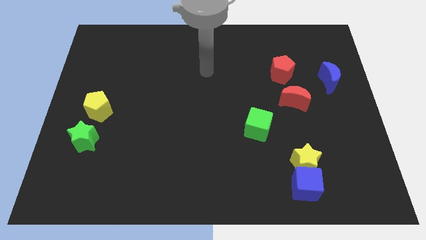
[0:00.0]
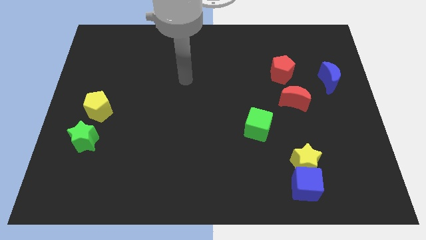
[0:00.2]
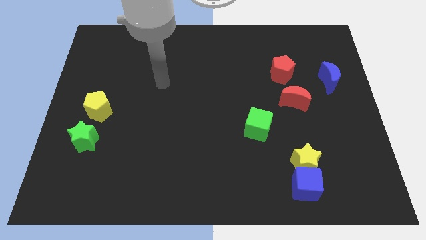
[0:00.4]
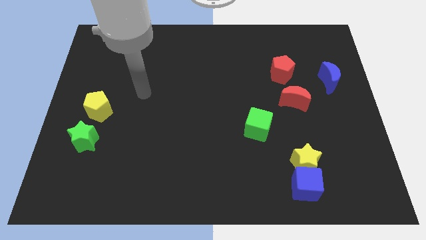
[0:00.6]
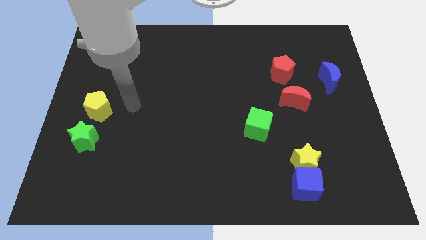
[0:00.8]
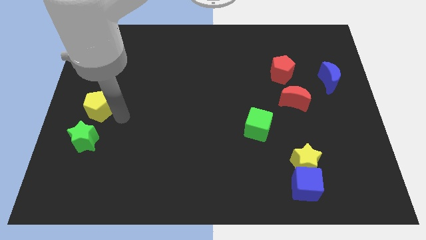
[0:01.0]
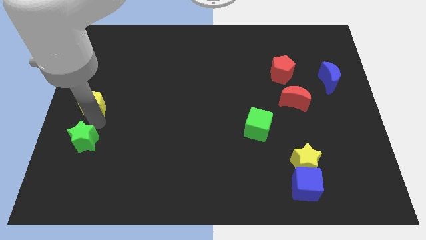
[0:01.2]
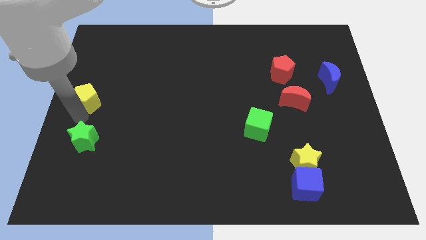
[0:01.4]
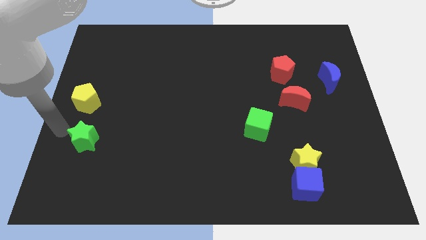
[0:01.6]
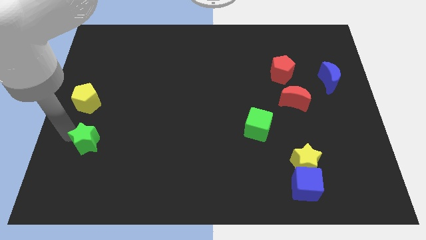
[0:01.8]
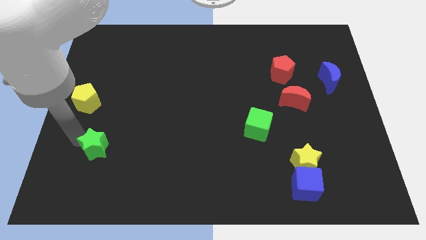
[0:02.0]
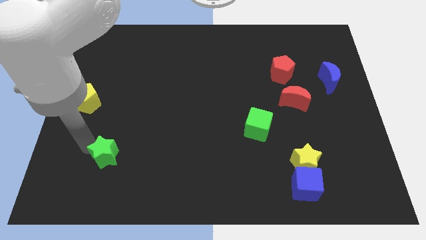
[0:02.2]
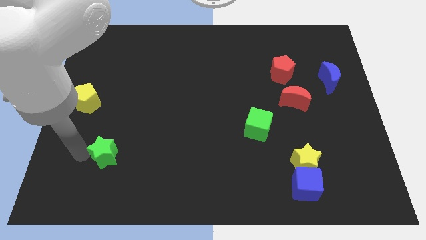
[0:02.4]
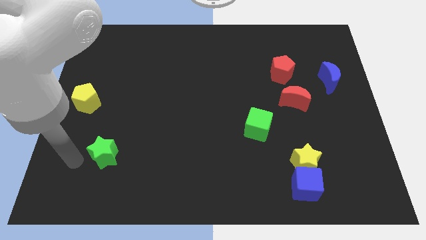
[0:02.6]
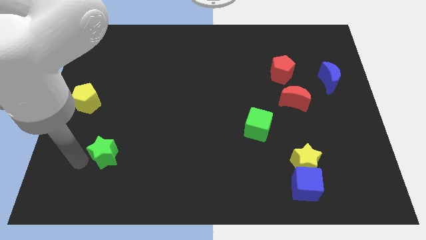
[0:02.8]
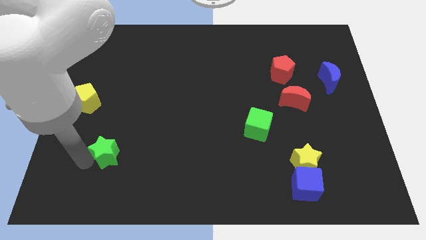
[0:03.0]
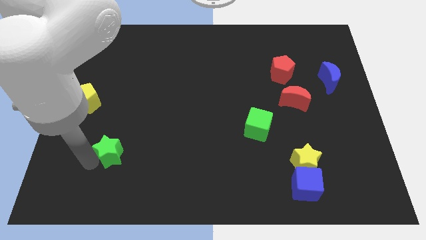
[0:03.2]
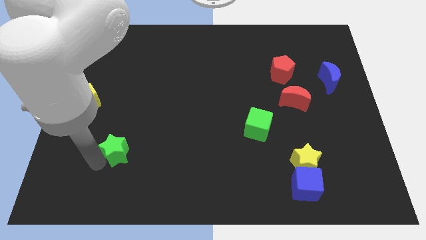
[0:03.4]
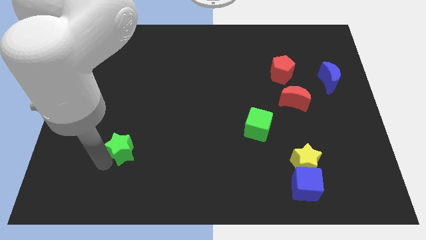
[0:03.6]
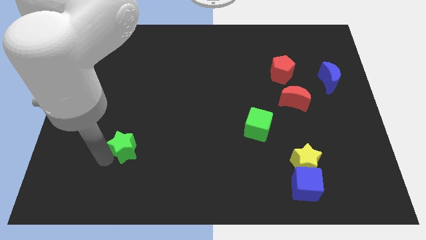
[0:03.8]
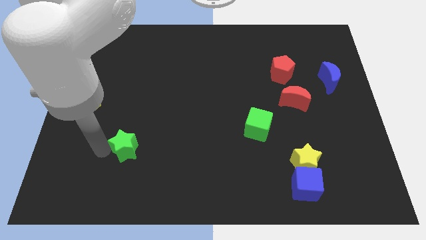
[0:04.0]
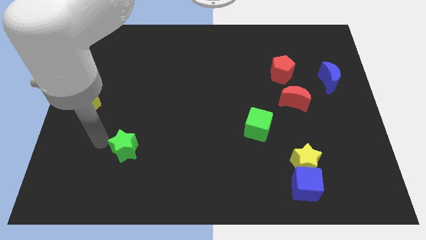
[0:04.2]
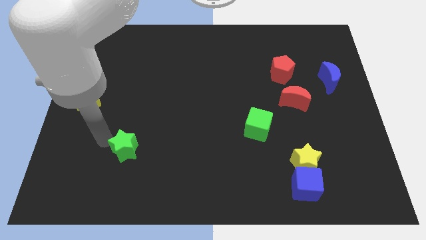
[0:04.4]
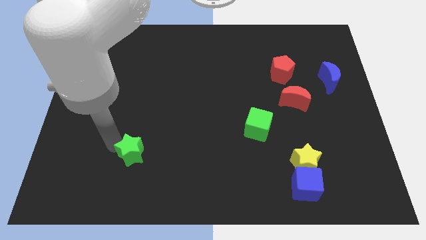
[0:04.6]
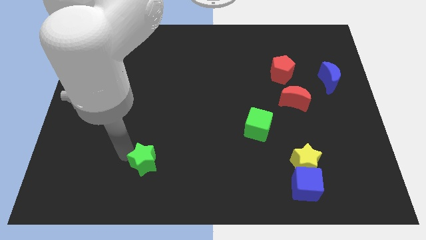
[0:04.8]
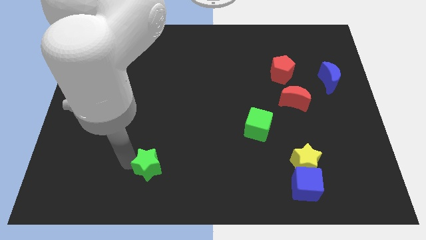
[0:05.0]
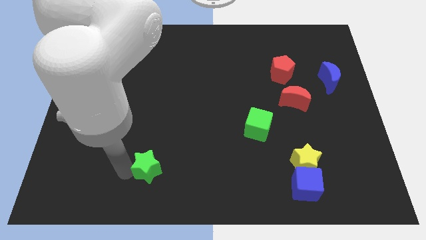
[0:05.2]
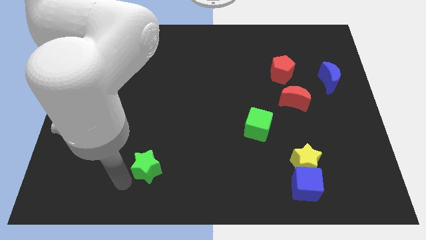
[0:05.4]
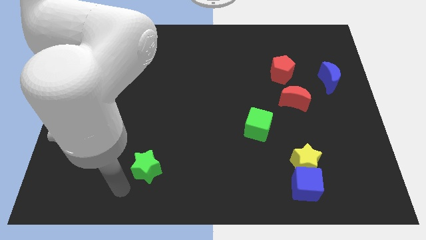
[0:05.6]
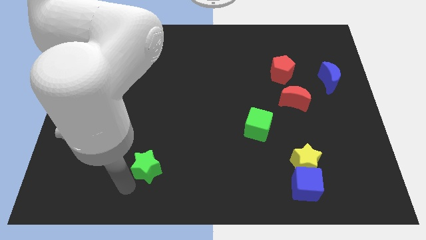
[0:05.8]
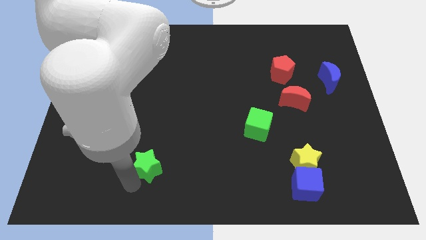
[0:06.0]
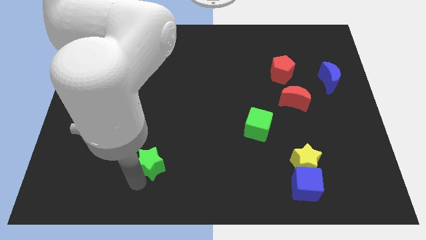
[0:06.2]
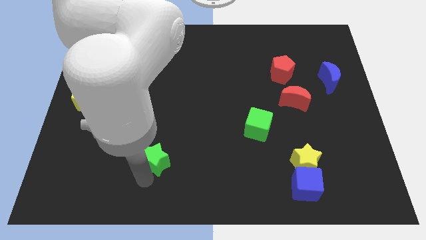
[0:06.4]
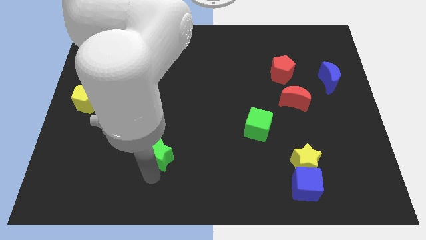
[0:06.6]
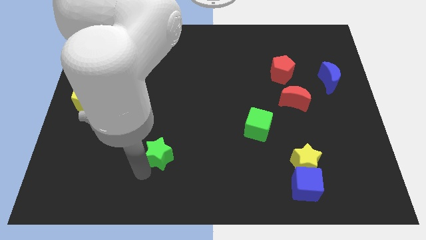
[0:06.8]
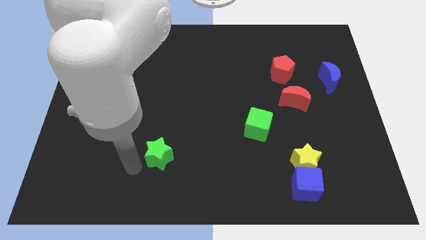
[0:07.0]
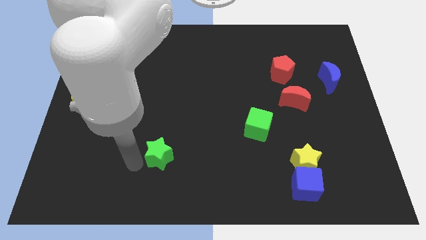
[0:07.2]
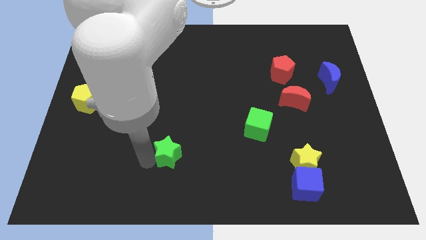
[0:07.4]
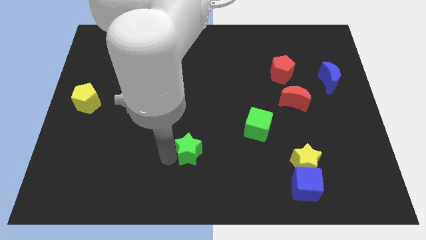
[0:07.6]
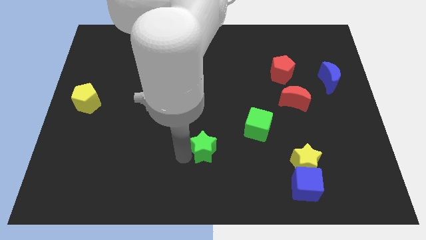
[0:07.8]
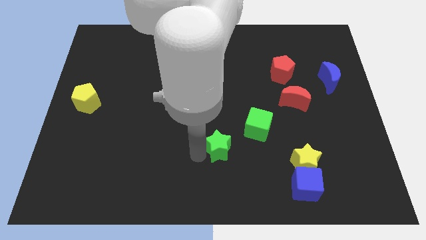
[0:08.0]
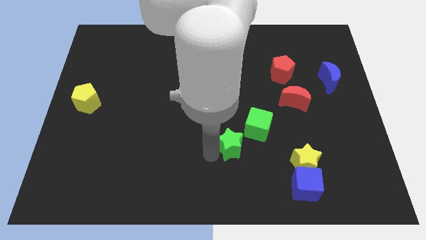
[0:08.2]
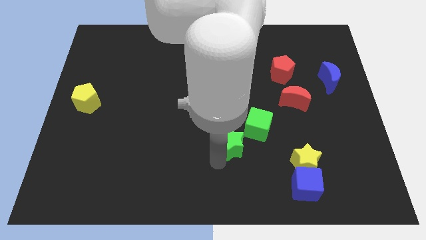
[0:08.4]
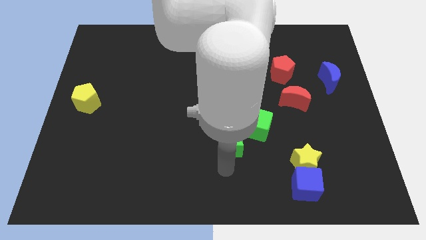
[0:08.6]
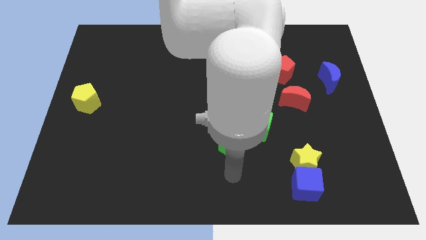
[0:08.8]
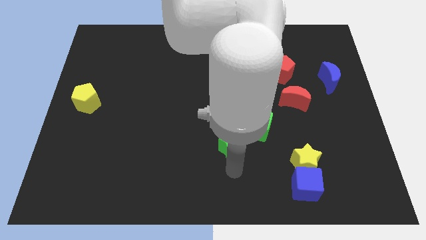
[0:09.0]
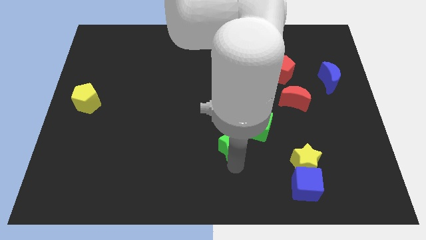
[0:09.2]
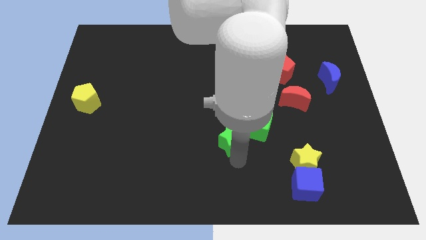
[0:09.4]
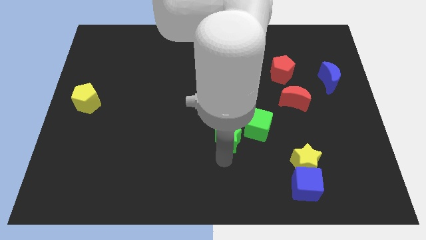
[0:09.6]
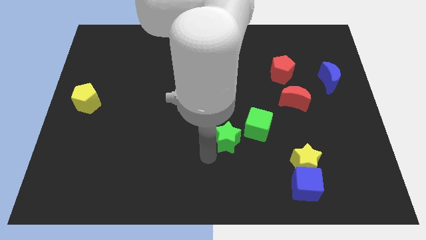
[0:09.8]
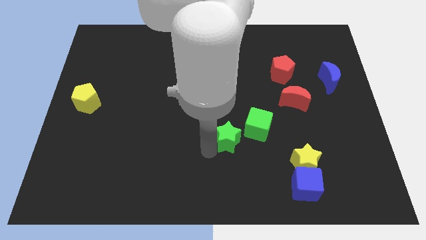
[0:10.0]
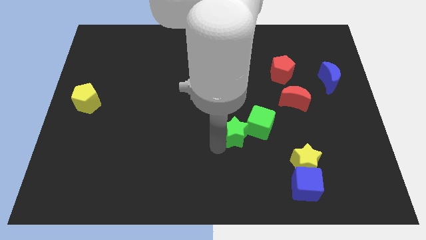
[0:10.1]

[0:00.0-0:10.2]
put the green star close to the green cube

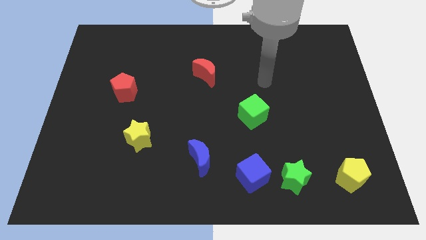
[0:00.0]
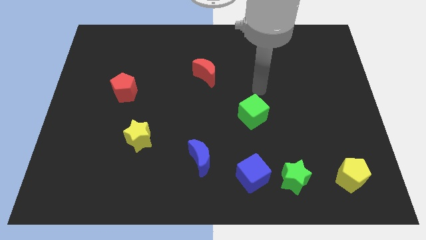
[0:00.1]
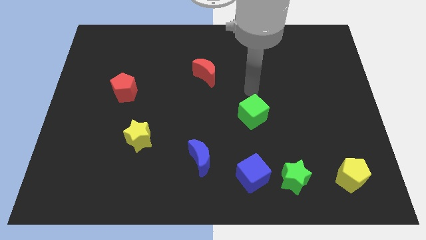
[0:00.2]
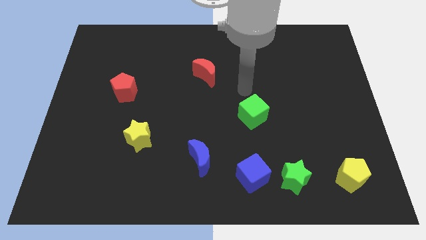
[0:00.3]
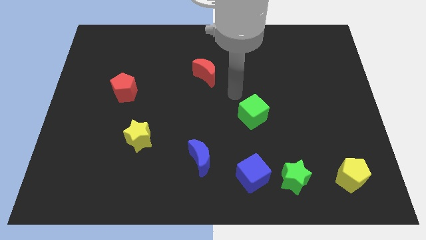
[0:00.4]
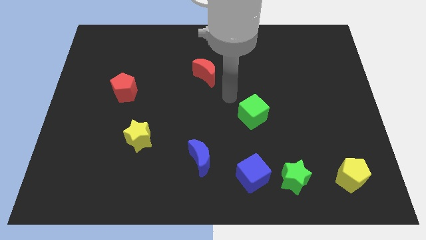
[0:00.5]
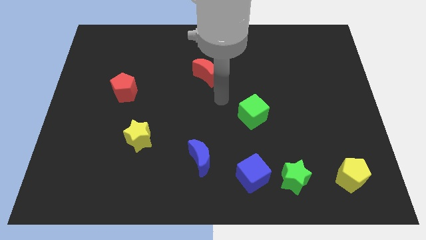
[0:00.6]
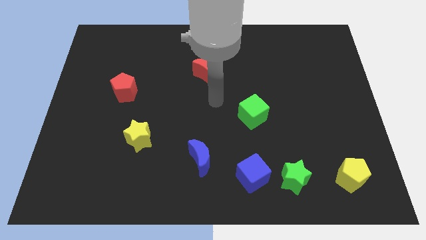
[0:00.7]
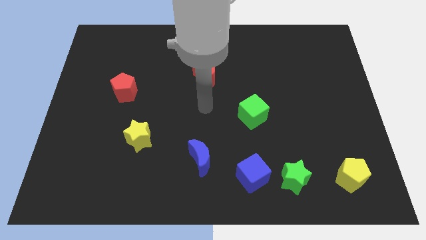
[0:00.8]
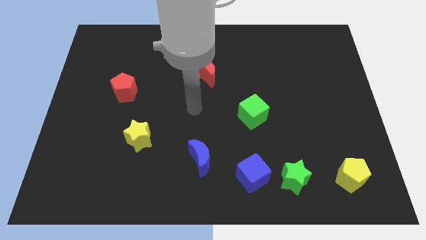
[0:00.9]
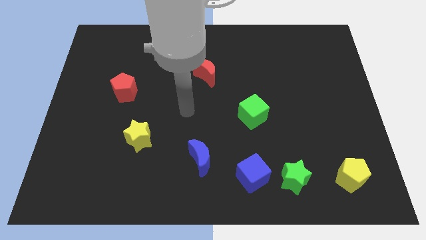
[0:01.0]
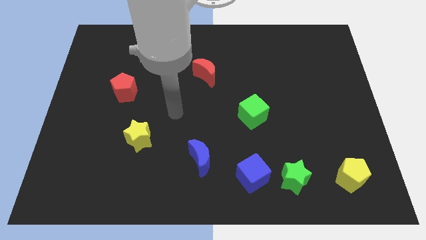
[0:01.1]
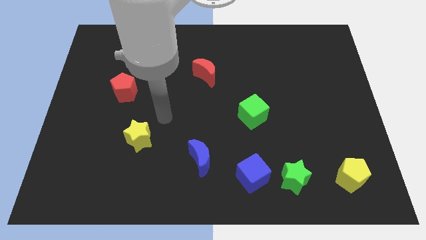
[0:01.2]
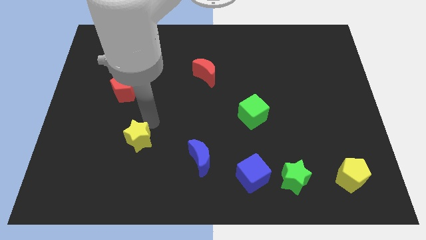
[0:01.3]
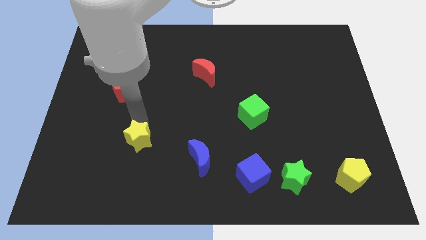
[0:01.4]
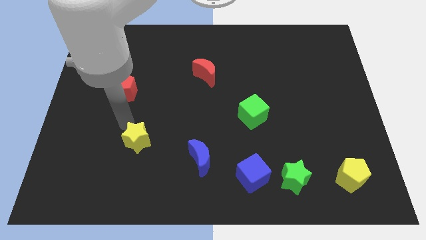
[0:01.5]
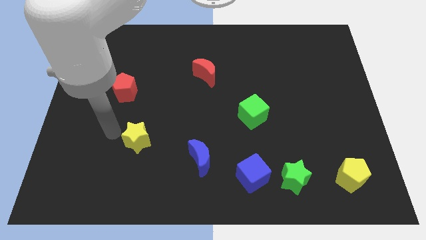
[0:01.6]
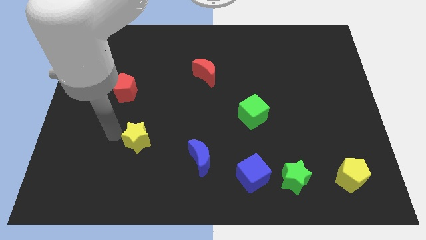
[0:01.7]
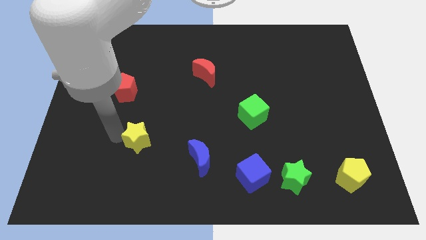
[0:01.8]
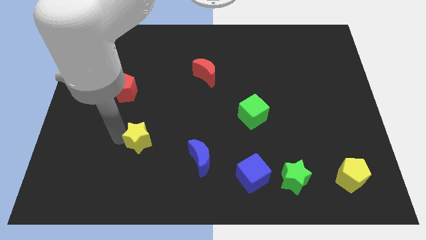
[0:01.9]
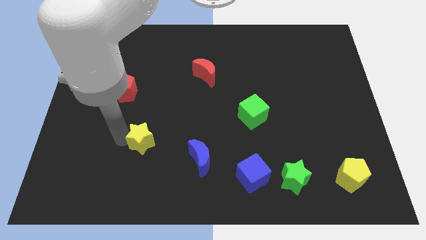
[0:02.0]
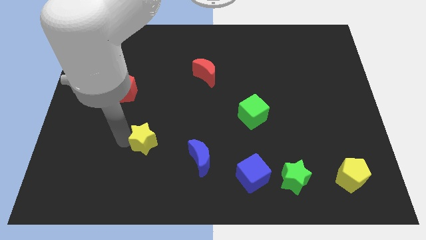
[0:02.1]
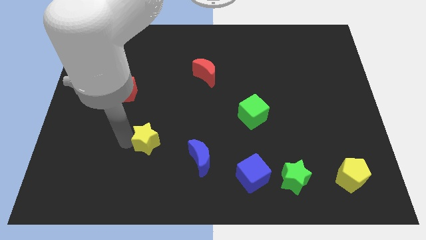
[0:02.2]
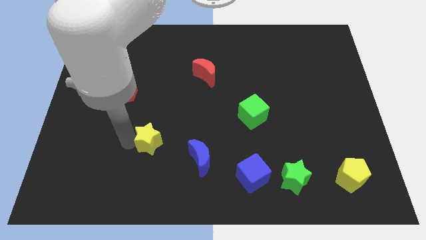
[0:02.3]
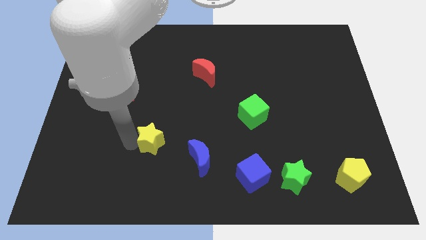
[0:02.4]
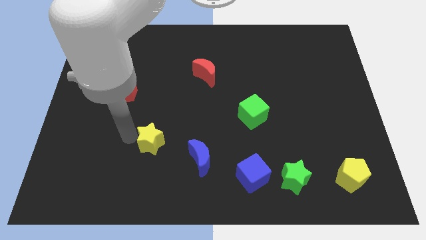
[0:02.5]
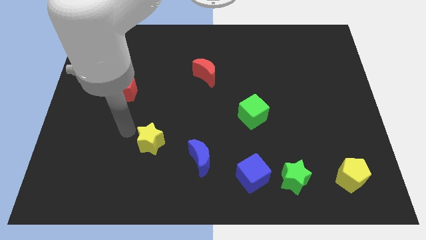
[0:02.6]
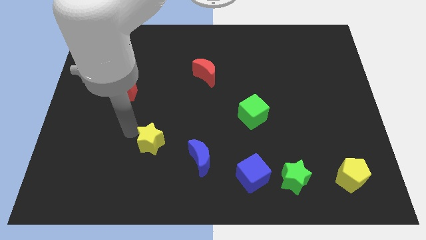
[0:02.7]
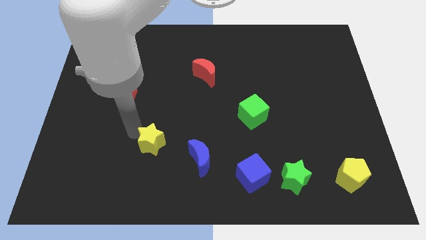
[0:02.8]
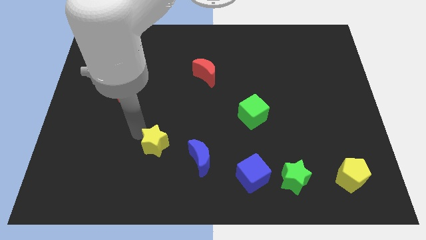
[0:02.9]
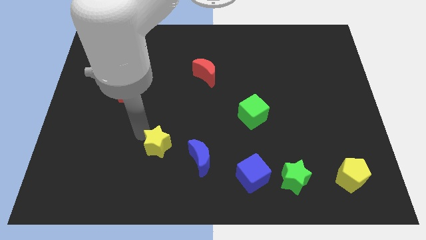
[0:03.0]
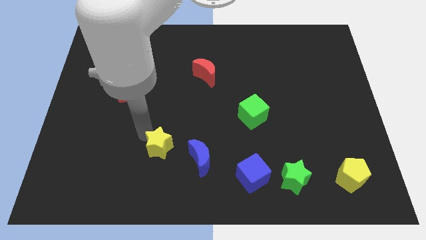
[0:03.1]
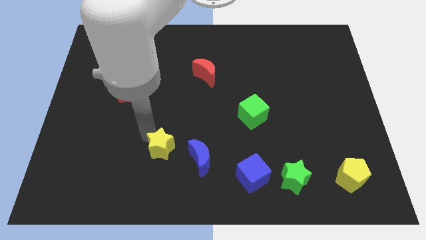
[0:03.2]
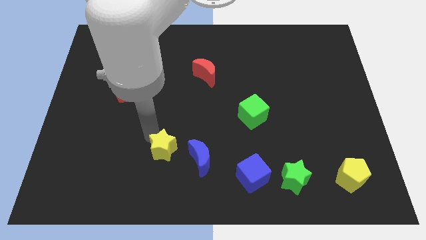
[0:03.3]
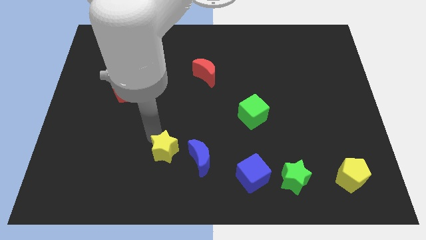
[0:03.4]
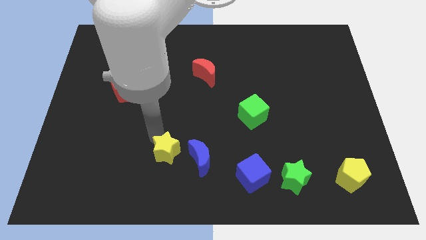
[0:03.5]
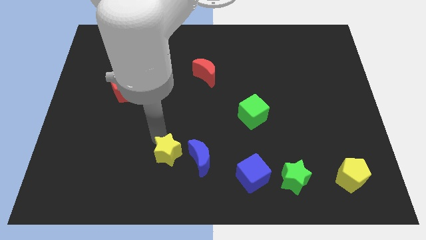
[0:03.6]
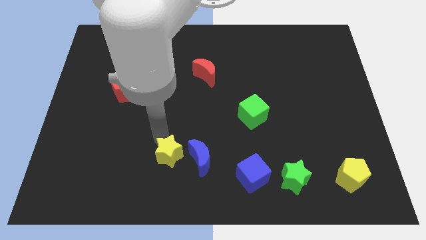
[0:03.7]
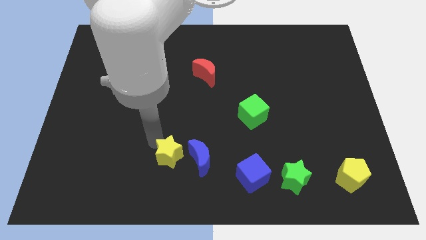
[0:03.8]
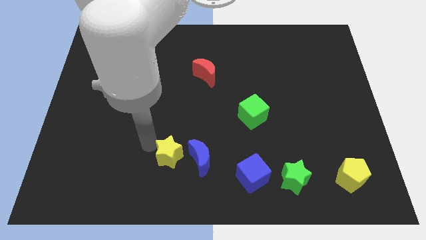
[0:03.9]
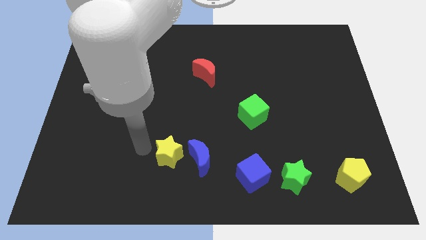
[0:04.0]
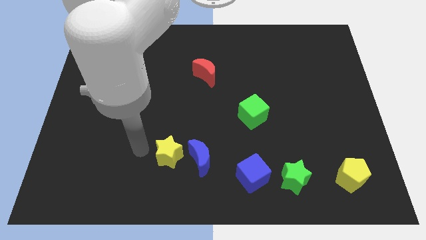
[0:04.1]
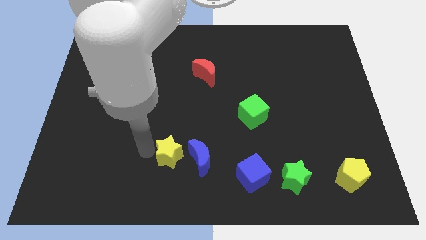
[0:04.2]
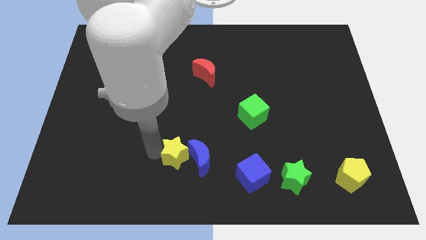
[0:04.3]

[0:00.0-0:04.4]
push the yellow star close to the blue moon
